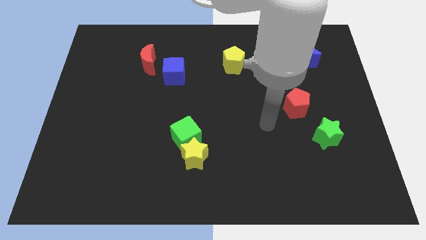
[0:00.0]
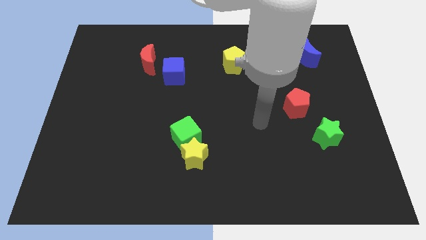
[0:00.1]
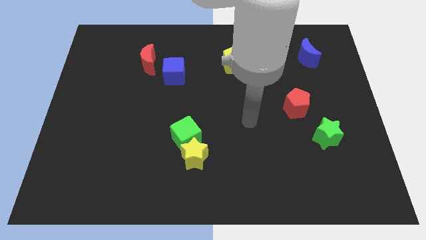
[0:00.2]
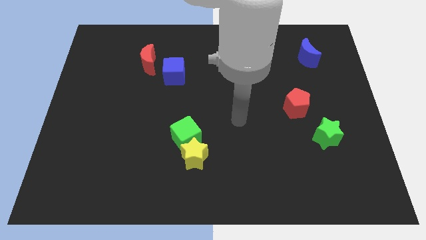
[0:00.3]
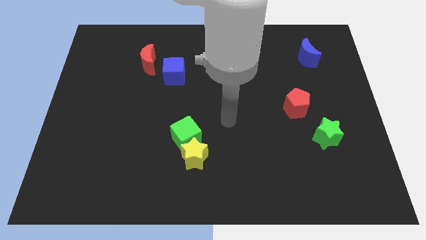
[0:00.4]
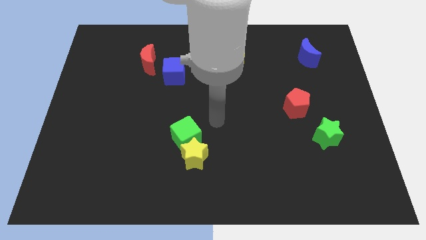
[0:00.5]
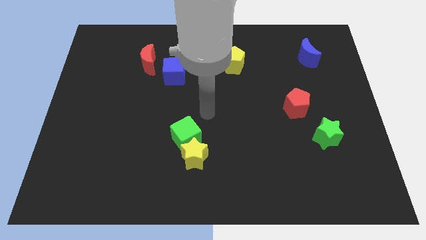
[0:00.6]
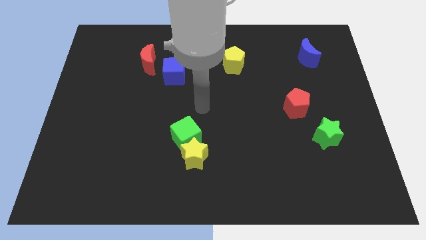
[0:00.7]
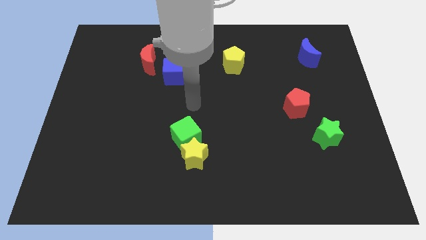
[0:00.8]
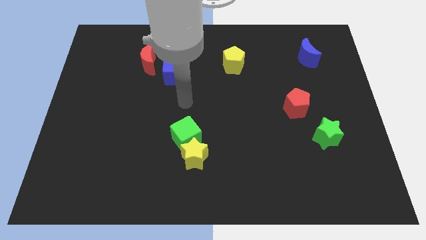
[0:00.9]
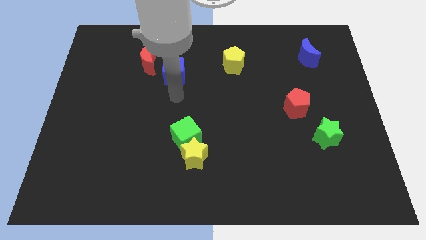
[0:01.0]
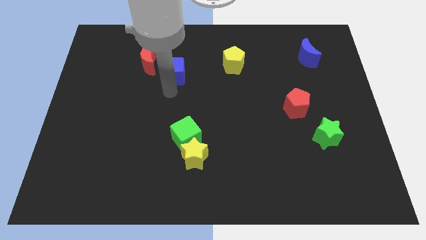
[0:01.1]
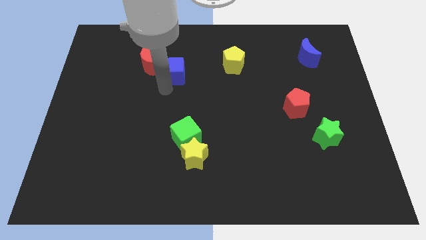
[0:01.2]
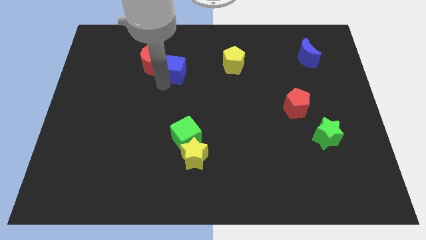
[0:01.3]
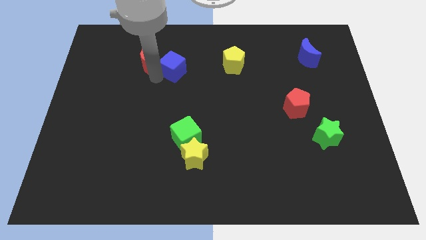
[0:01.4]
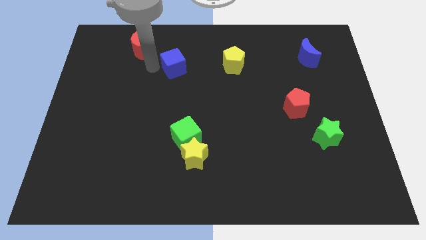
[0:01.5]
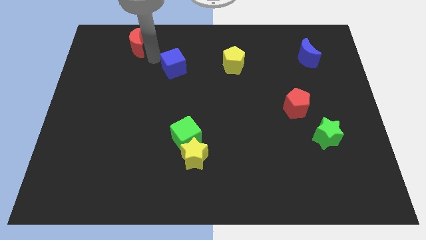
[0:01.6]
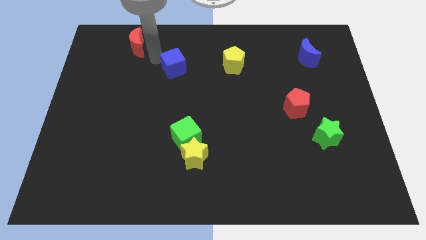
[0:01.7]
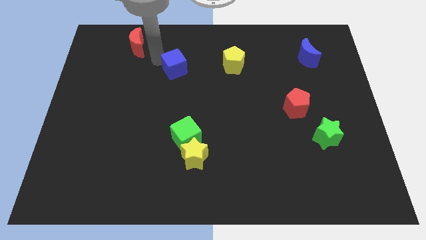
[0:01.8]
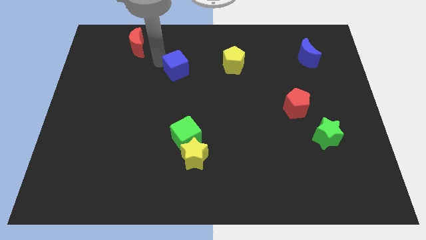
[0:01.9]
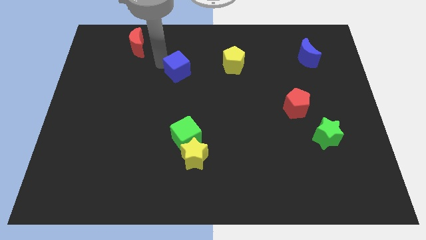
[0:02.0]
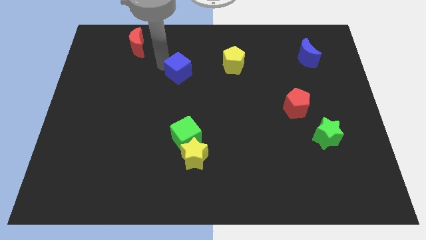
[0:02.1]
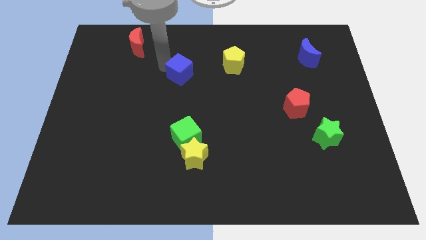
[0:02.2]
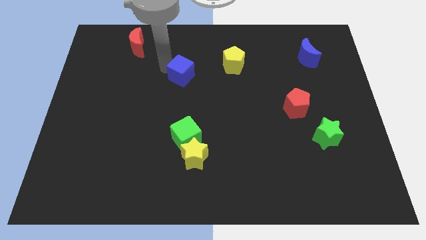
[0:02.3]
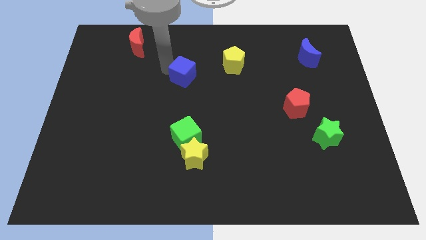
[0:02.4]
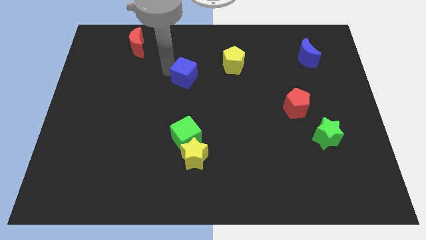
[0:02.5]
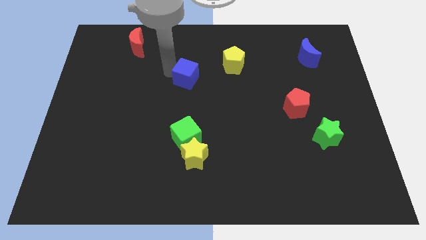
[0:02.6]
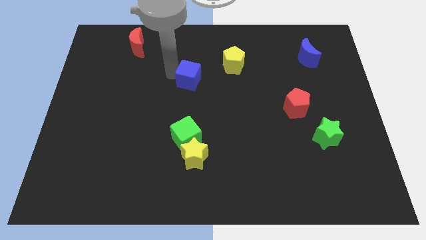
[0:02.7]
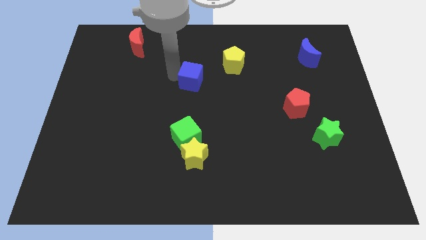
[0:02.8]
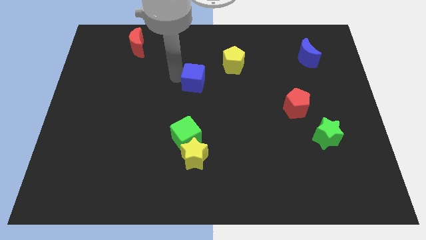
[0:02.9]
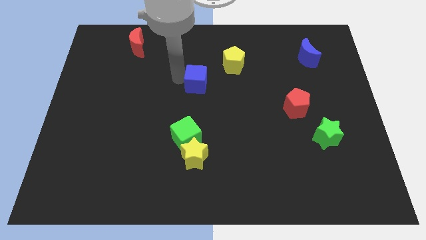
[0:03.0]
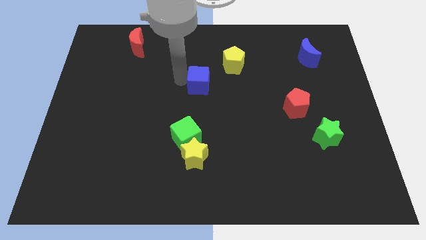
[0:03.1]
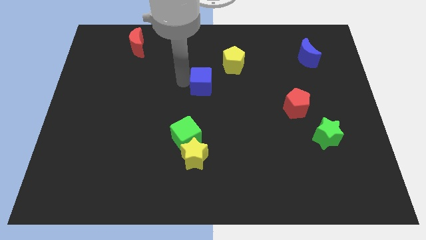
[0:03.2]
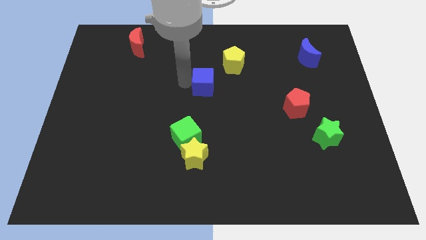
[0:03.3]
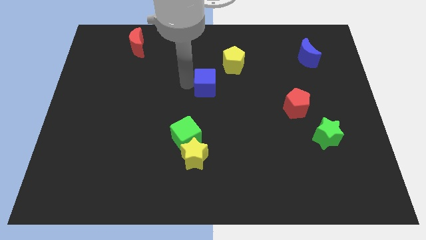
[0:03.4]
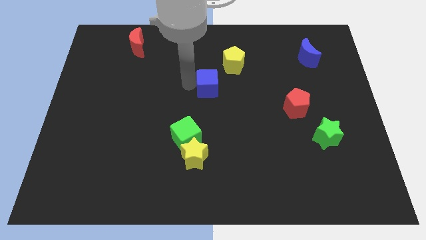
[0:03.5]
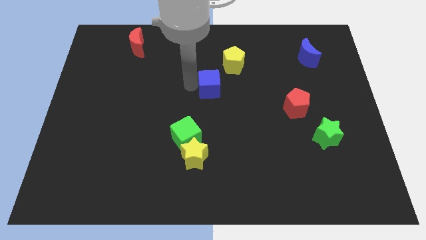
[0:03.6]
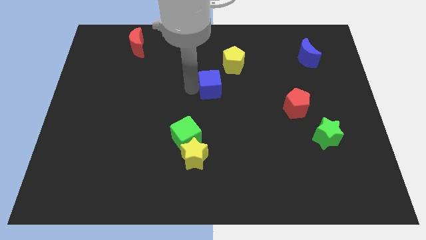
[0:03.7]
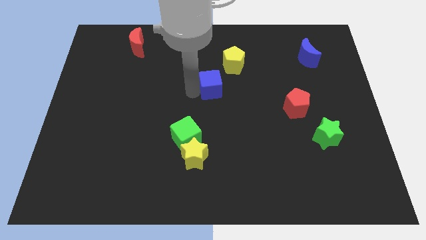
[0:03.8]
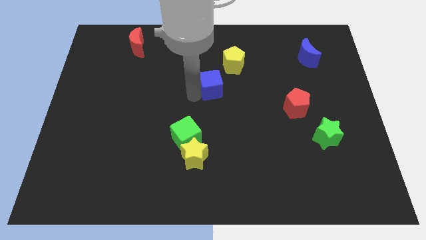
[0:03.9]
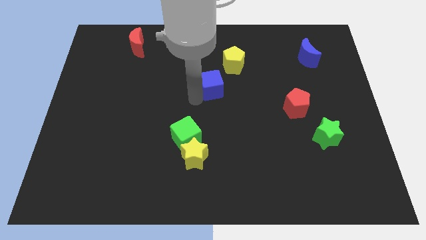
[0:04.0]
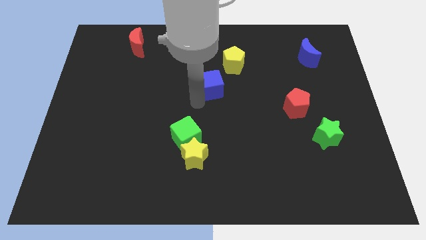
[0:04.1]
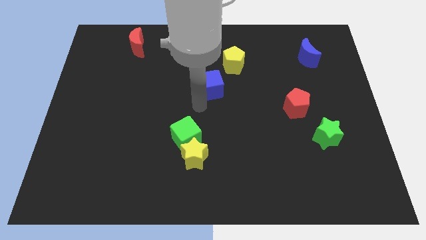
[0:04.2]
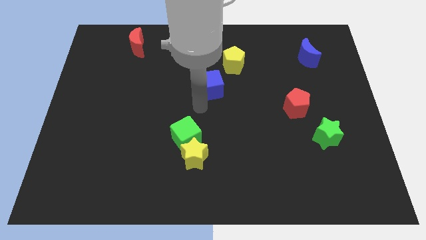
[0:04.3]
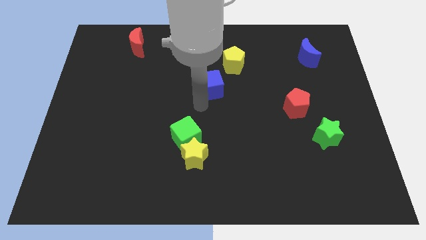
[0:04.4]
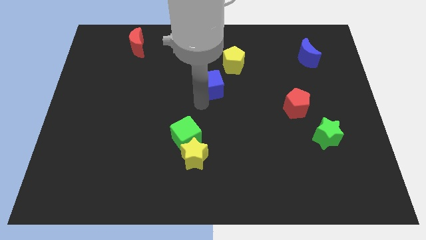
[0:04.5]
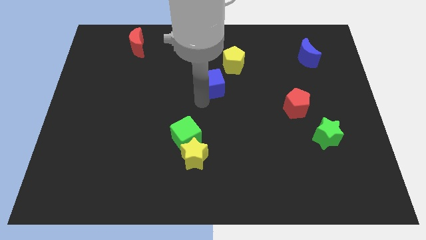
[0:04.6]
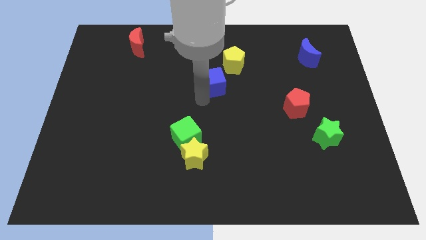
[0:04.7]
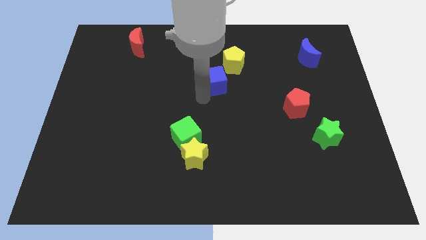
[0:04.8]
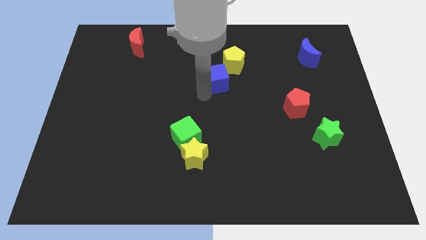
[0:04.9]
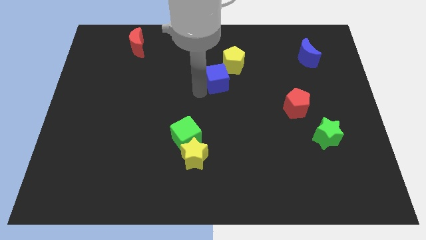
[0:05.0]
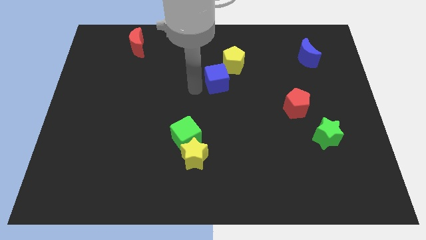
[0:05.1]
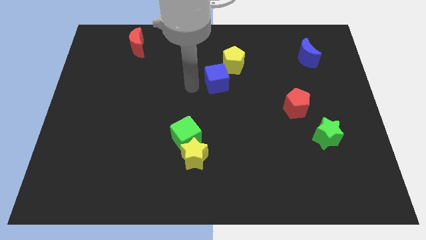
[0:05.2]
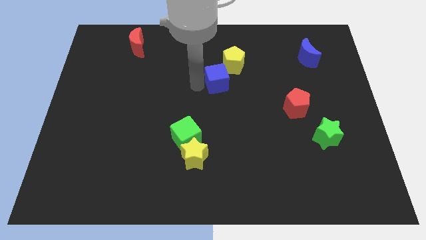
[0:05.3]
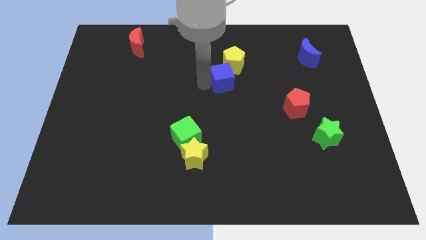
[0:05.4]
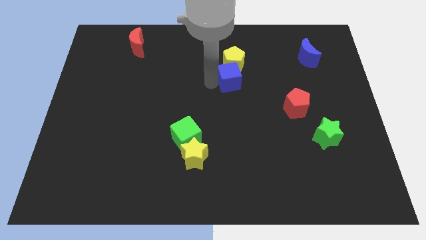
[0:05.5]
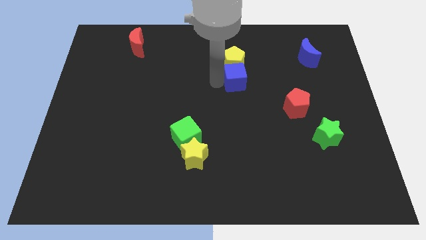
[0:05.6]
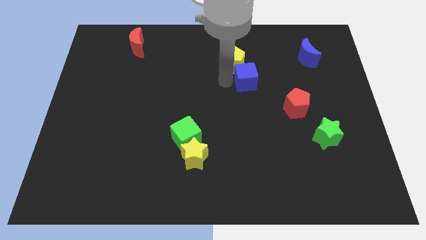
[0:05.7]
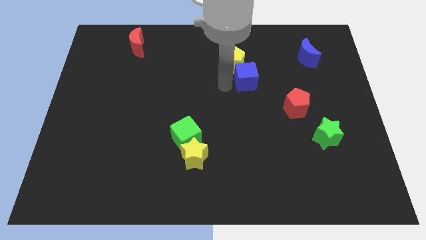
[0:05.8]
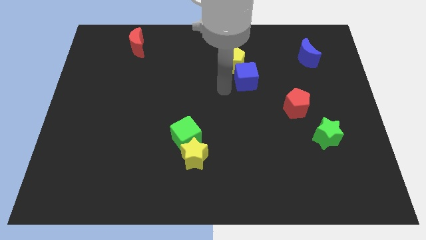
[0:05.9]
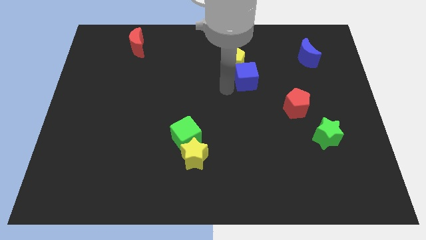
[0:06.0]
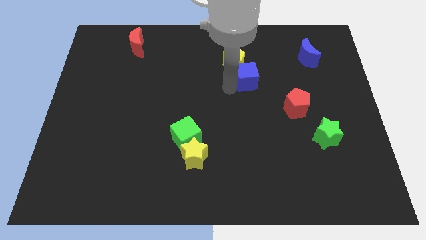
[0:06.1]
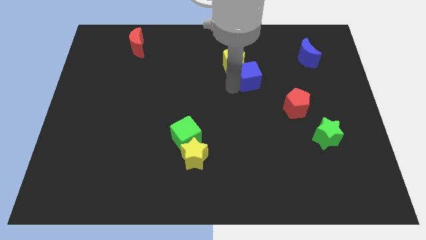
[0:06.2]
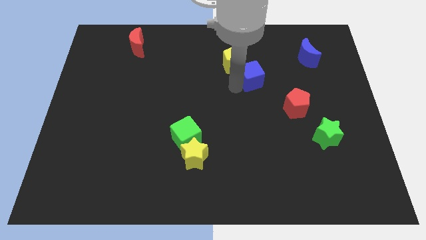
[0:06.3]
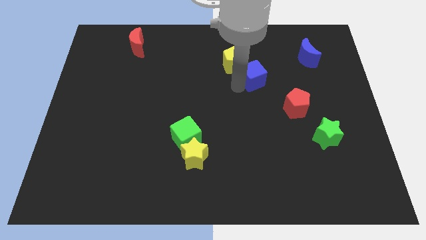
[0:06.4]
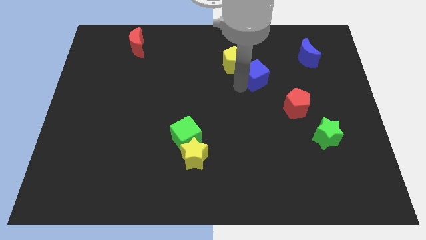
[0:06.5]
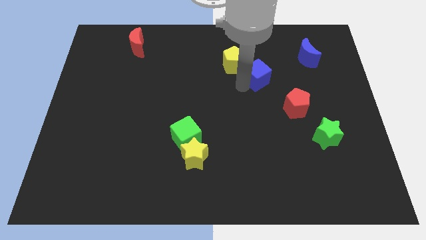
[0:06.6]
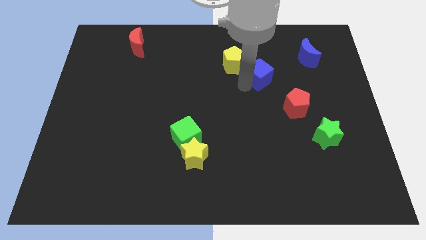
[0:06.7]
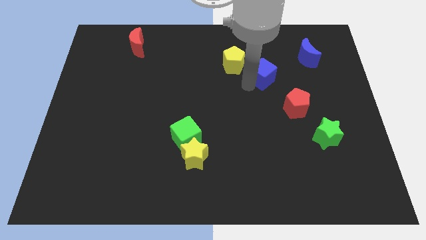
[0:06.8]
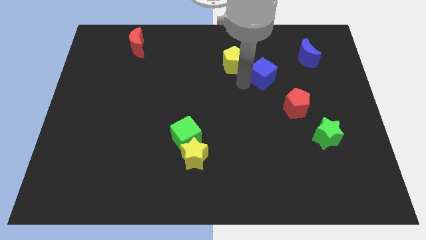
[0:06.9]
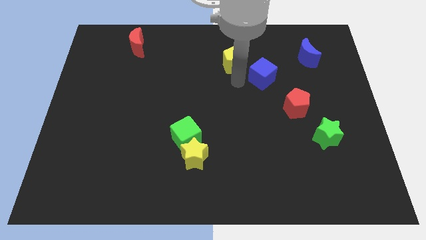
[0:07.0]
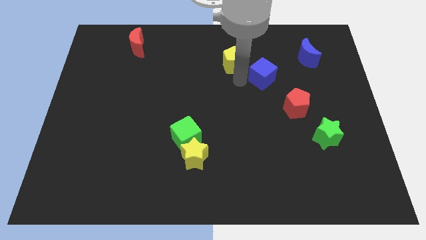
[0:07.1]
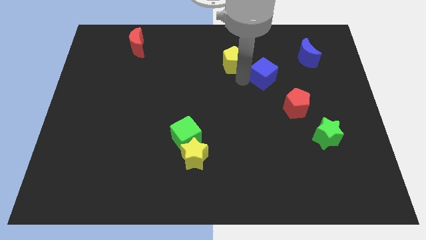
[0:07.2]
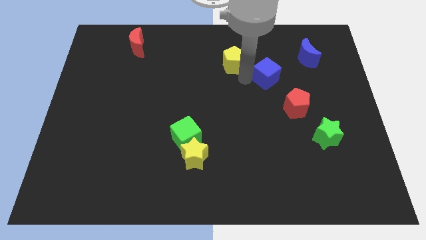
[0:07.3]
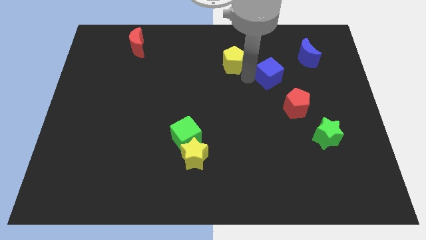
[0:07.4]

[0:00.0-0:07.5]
put the blue cube to the bottom left of the blue moon
